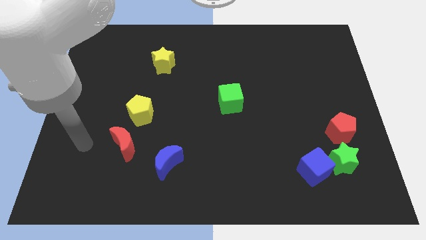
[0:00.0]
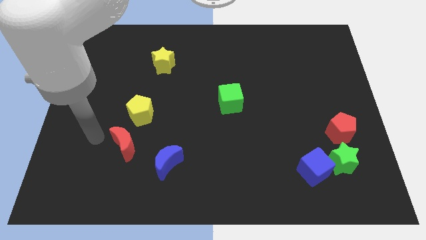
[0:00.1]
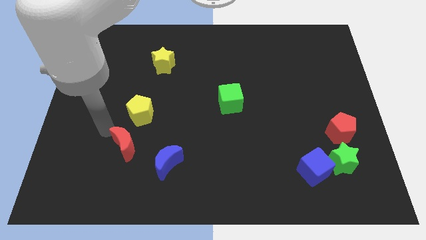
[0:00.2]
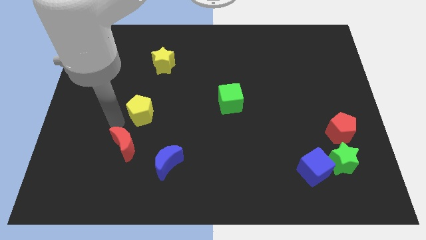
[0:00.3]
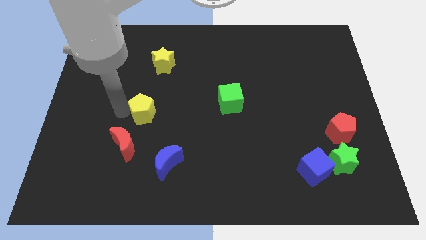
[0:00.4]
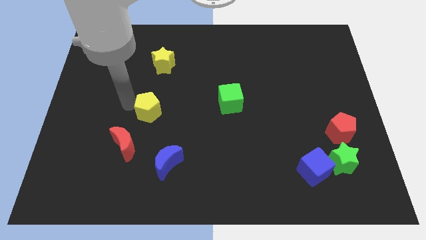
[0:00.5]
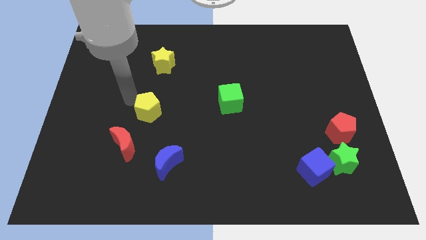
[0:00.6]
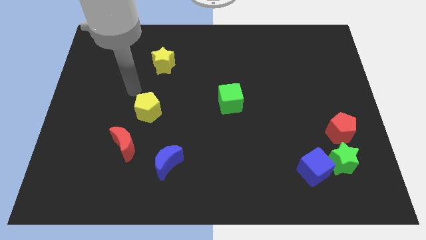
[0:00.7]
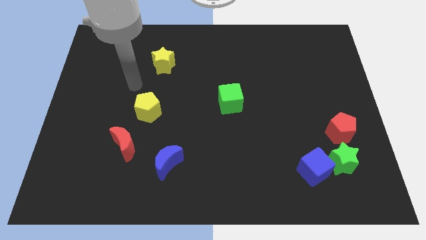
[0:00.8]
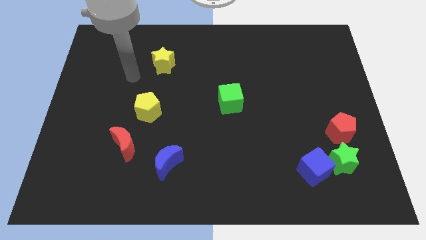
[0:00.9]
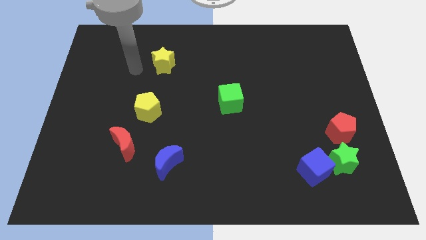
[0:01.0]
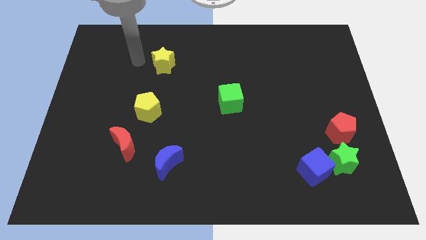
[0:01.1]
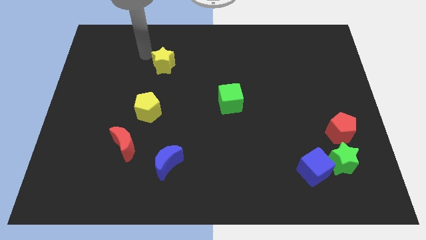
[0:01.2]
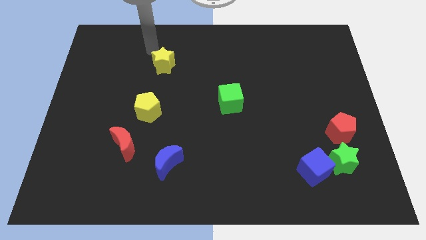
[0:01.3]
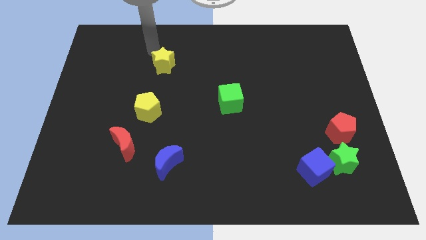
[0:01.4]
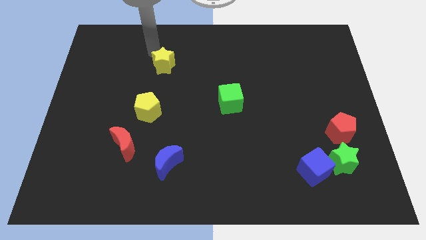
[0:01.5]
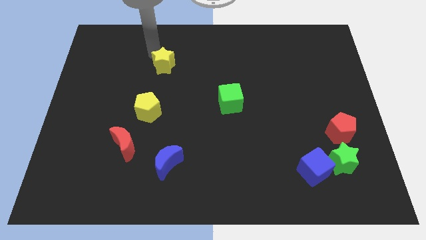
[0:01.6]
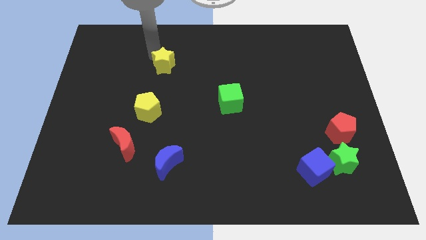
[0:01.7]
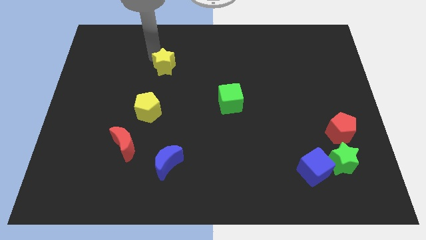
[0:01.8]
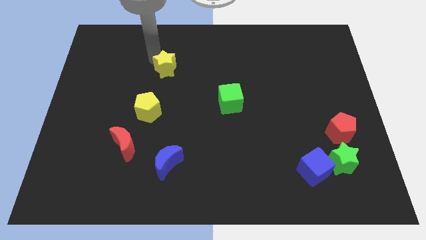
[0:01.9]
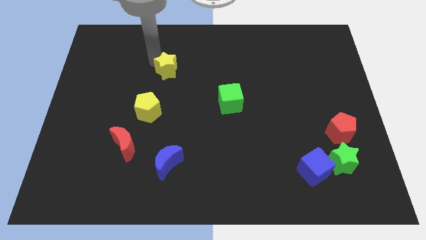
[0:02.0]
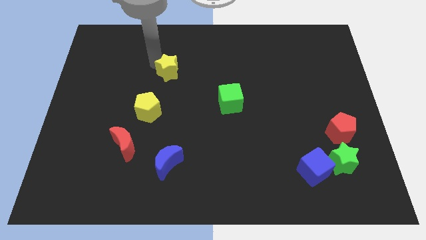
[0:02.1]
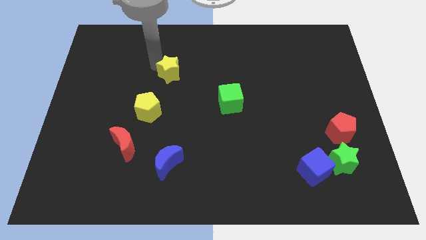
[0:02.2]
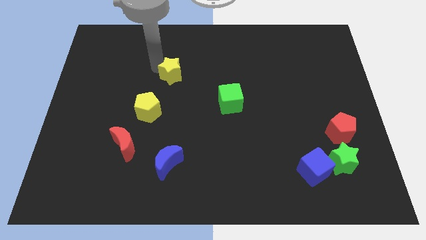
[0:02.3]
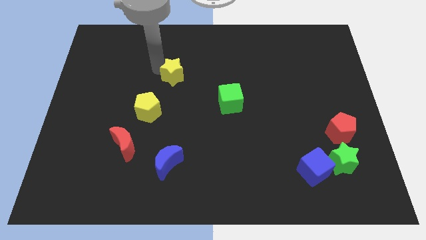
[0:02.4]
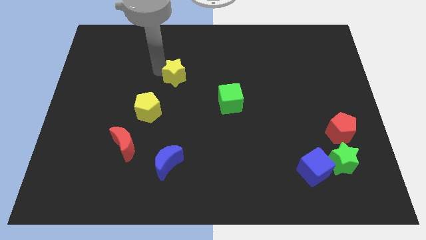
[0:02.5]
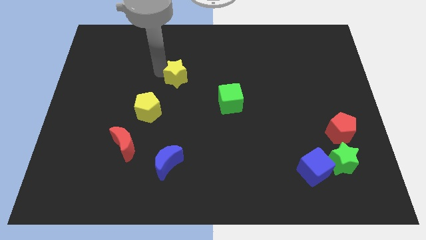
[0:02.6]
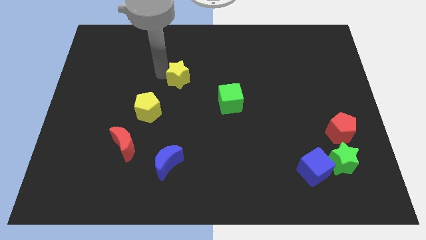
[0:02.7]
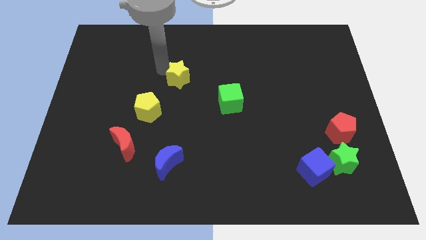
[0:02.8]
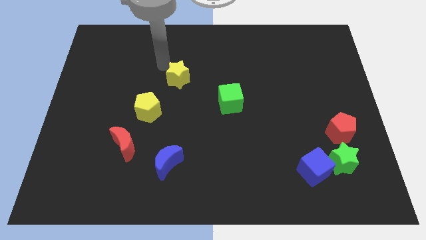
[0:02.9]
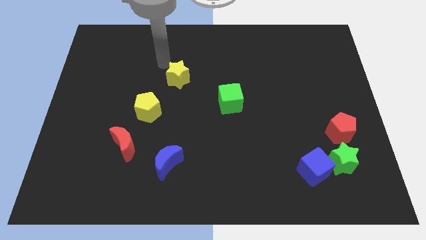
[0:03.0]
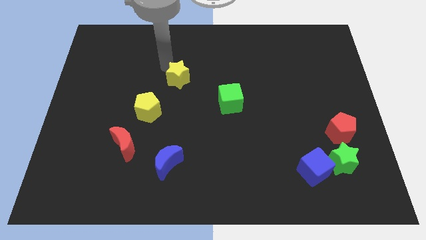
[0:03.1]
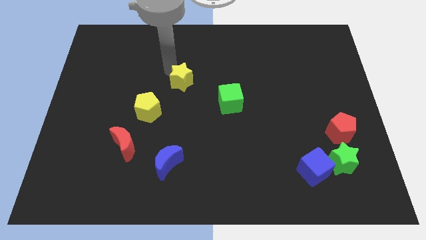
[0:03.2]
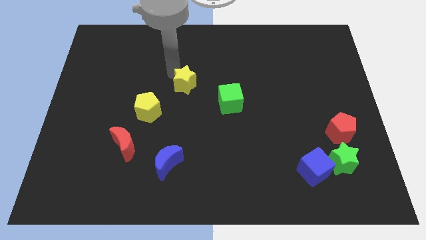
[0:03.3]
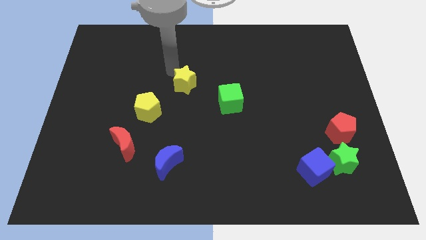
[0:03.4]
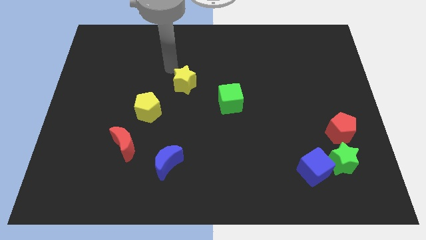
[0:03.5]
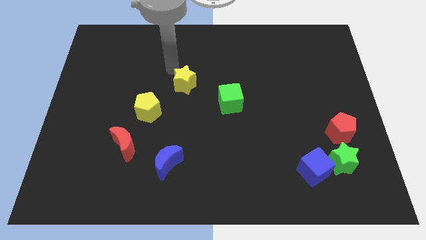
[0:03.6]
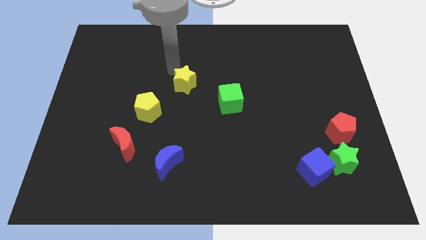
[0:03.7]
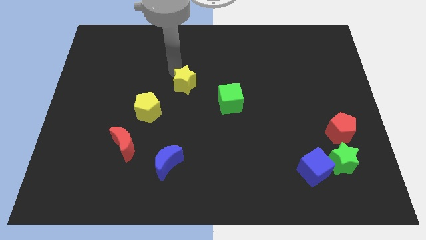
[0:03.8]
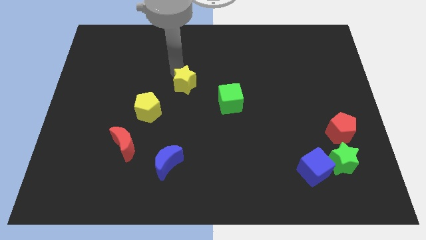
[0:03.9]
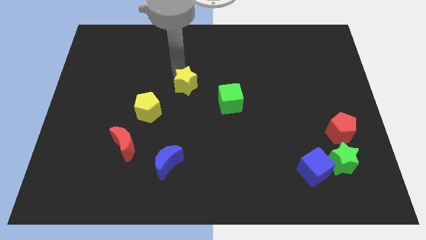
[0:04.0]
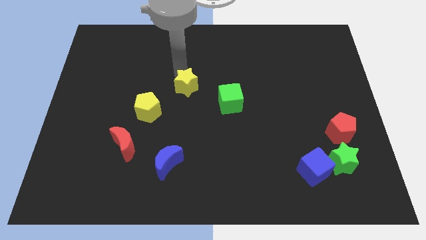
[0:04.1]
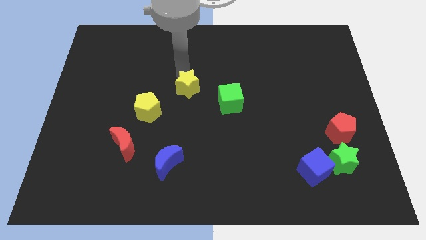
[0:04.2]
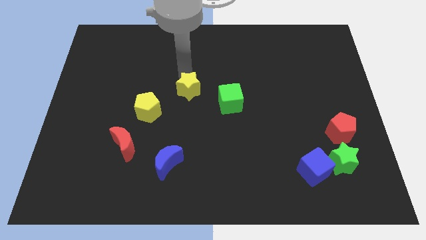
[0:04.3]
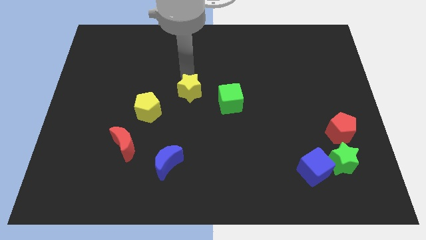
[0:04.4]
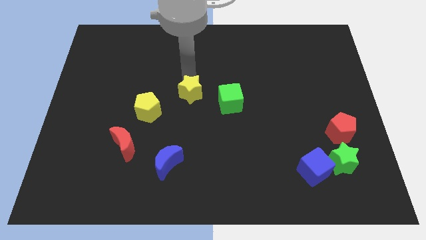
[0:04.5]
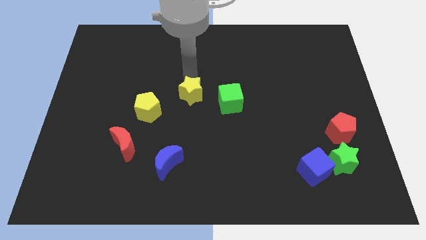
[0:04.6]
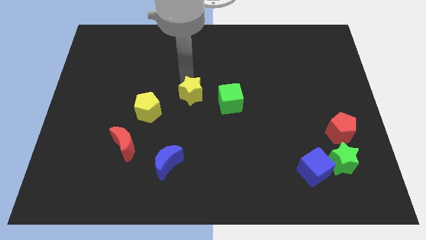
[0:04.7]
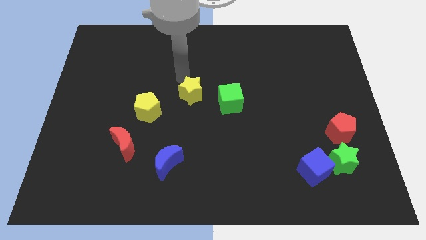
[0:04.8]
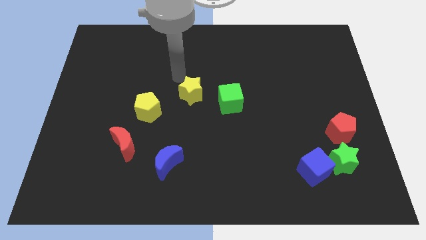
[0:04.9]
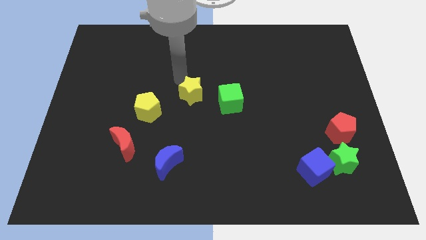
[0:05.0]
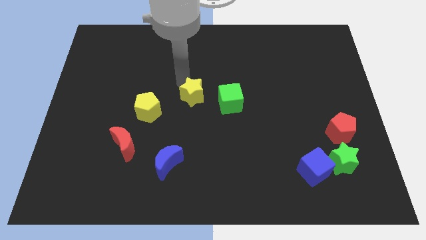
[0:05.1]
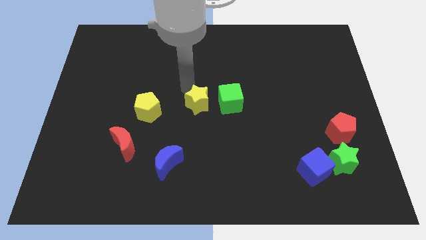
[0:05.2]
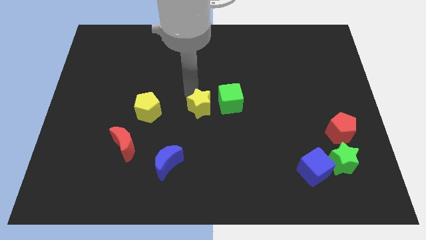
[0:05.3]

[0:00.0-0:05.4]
put the yellow star to the bottom left side of the green cube

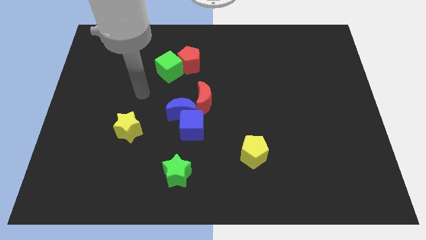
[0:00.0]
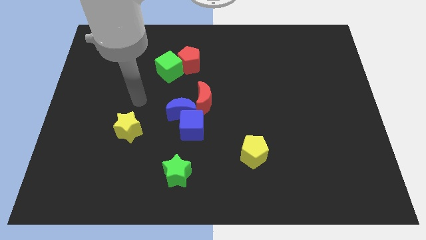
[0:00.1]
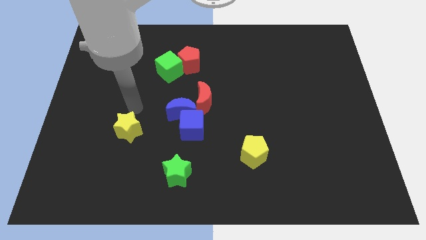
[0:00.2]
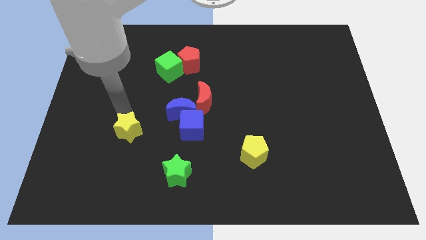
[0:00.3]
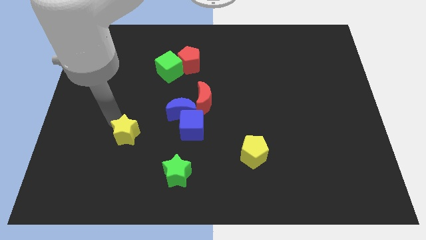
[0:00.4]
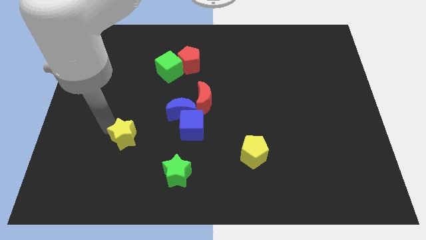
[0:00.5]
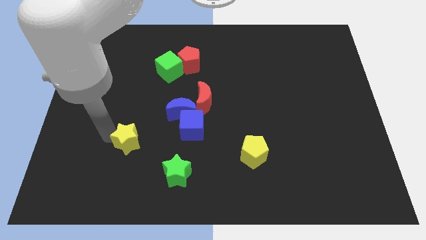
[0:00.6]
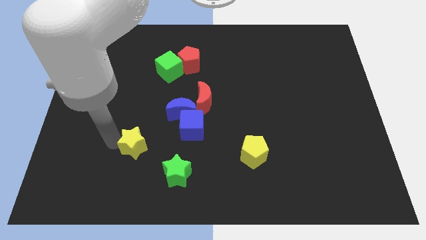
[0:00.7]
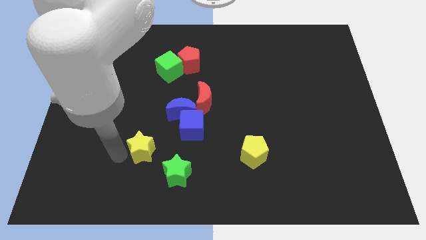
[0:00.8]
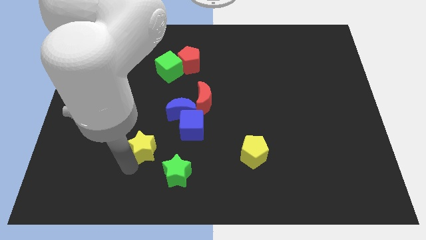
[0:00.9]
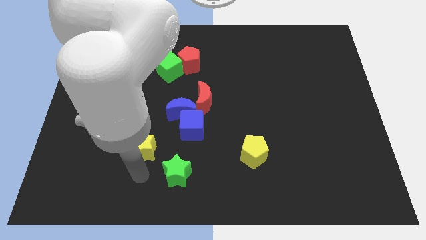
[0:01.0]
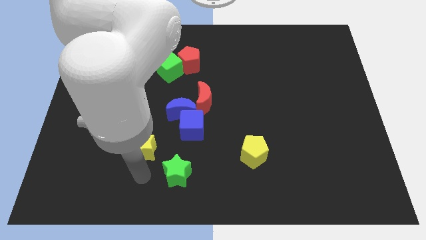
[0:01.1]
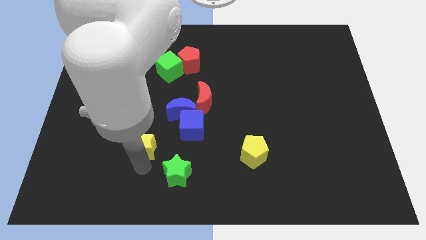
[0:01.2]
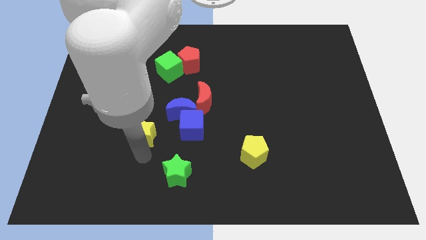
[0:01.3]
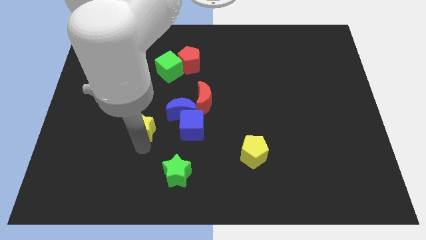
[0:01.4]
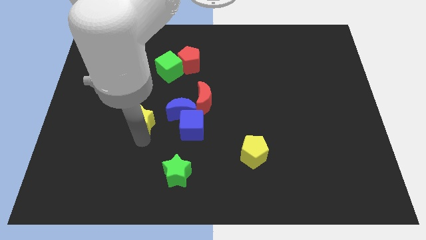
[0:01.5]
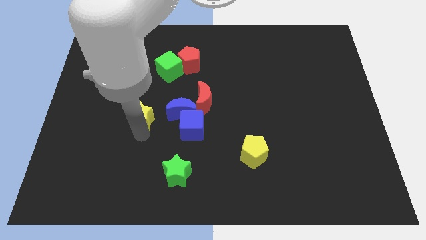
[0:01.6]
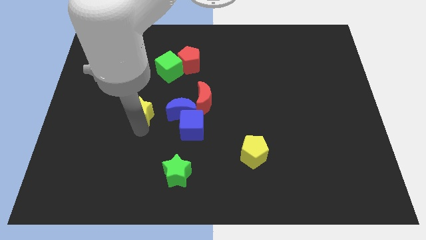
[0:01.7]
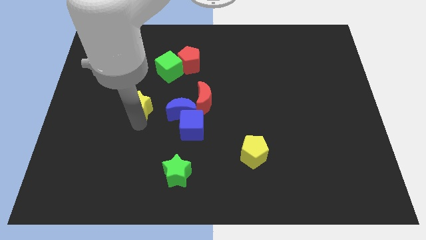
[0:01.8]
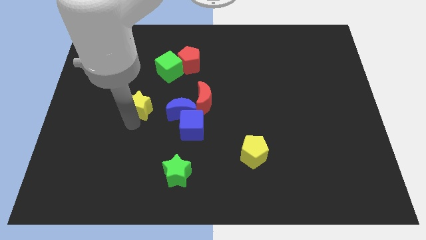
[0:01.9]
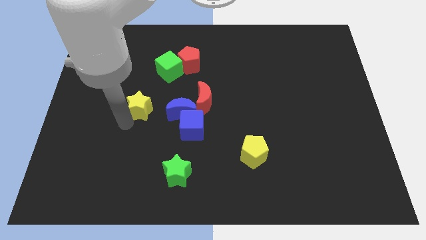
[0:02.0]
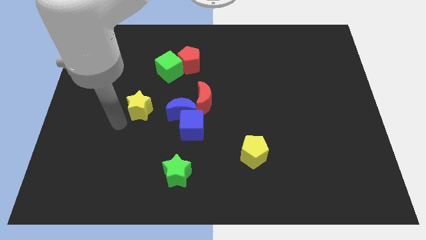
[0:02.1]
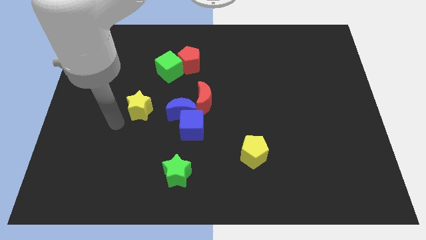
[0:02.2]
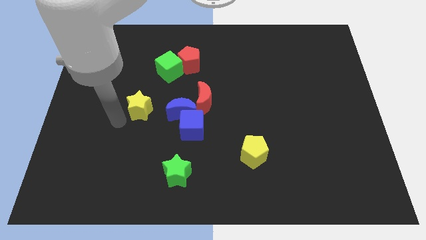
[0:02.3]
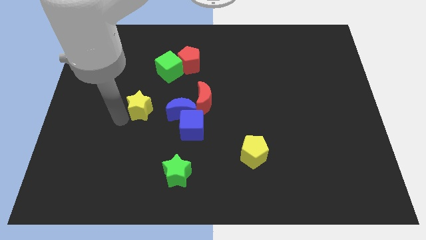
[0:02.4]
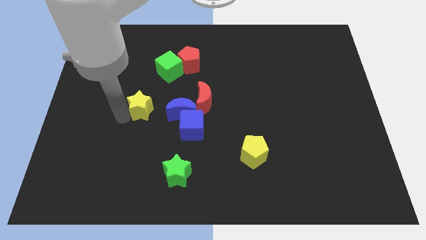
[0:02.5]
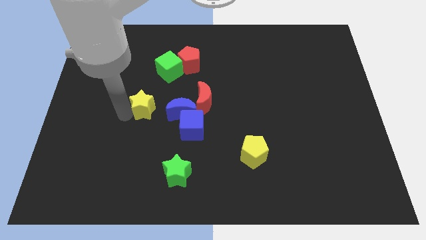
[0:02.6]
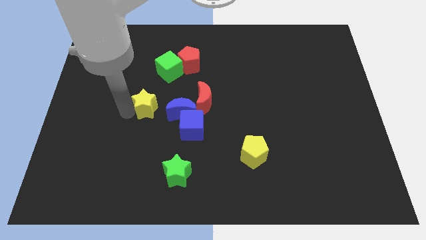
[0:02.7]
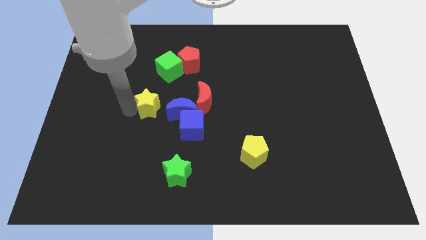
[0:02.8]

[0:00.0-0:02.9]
put the yellow star to the top left side of the blue moon
